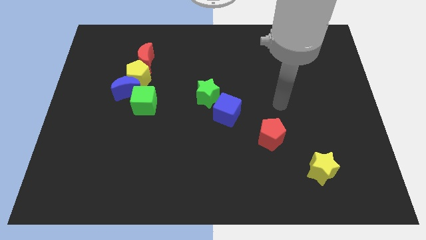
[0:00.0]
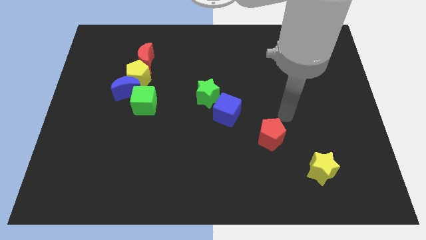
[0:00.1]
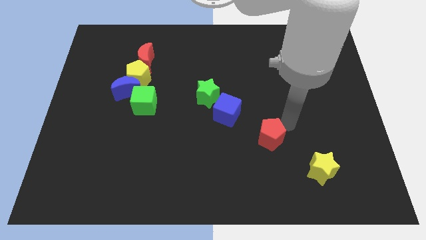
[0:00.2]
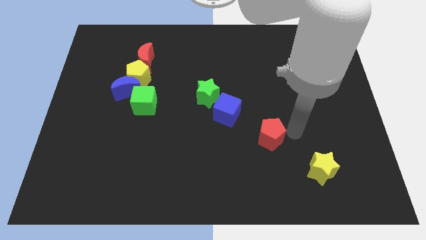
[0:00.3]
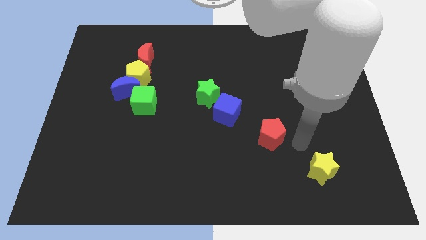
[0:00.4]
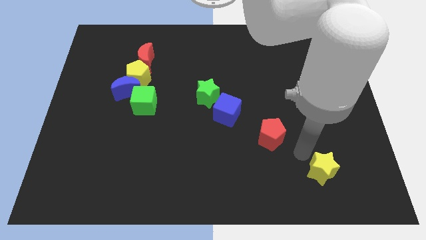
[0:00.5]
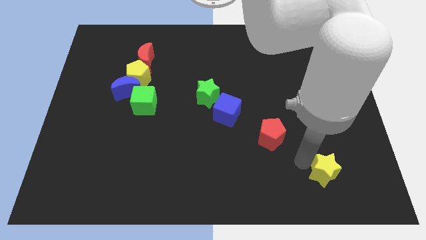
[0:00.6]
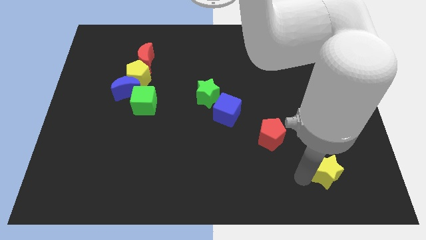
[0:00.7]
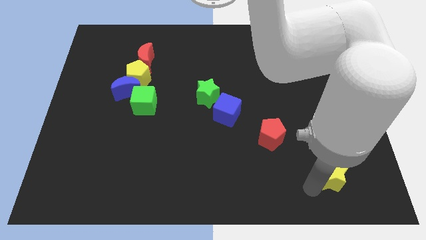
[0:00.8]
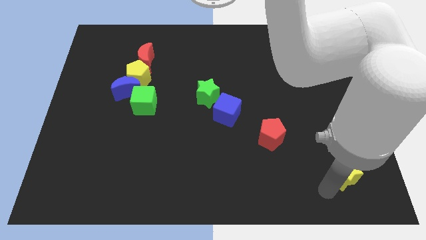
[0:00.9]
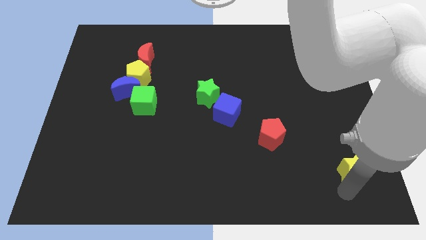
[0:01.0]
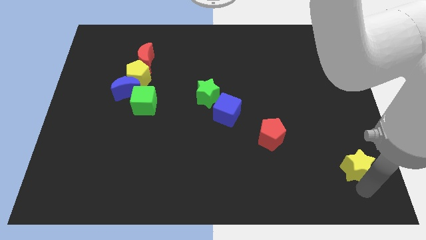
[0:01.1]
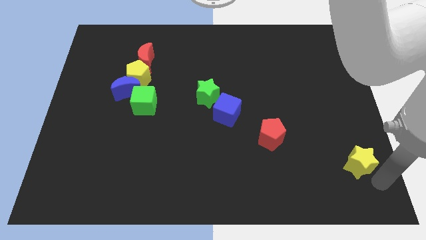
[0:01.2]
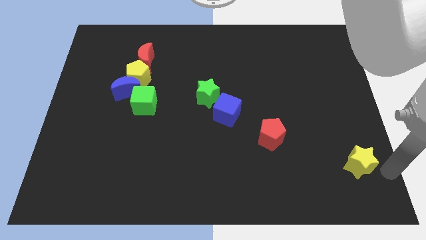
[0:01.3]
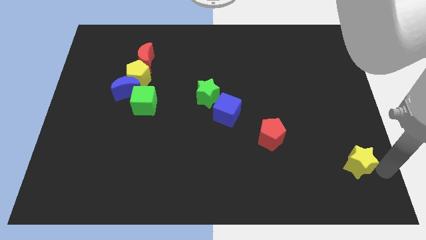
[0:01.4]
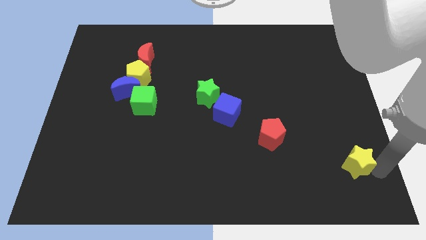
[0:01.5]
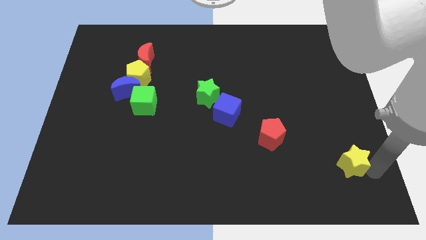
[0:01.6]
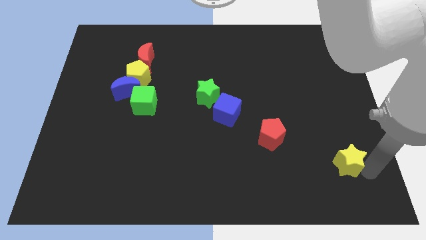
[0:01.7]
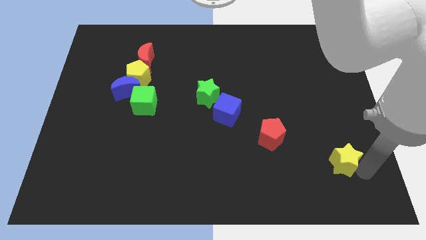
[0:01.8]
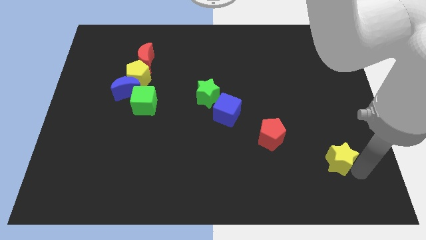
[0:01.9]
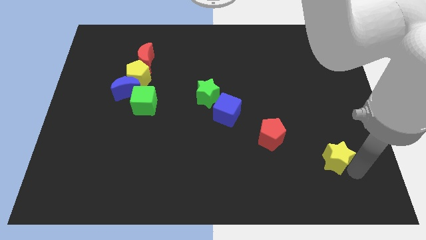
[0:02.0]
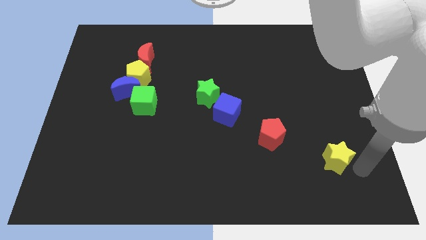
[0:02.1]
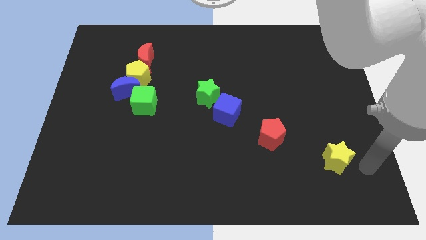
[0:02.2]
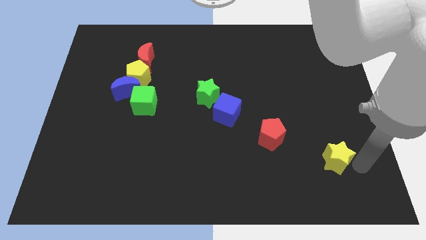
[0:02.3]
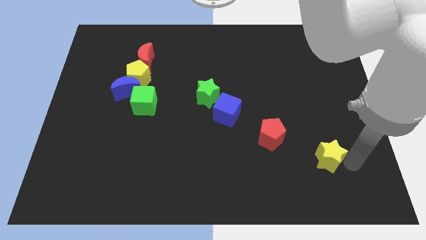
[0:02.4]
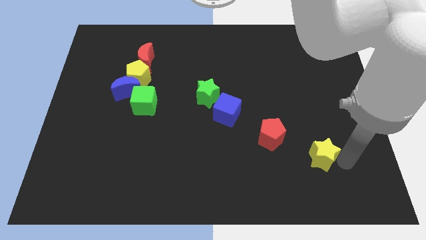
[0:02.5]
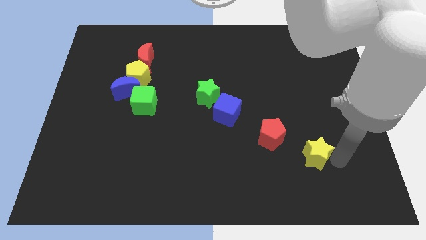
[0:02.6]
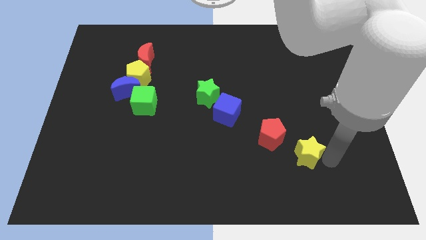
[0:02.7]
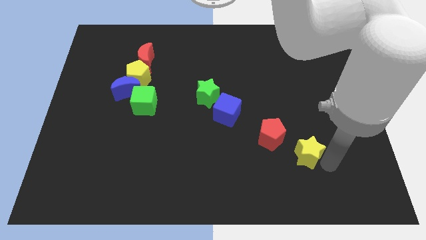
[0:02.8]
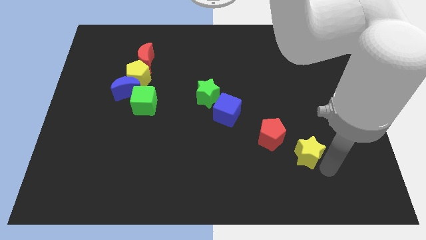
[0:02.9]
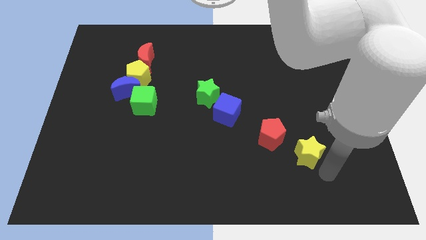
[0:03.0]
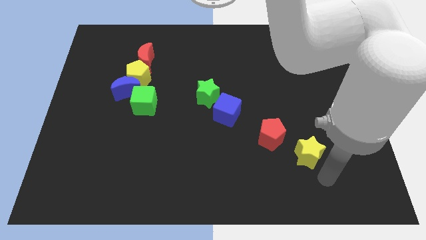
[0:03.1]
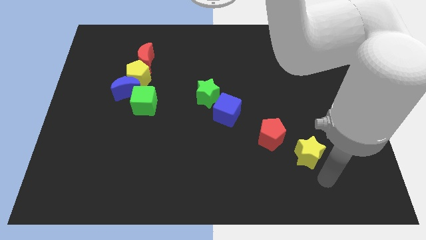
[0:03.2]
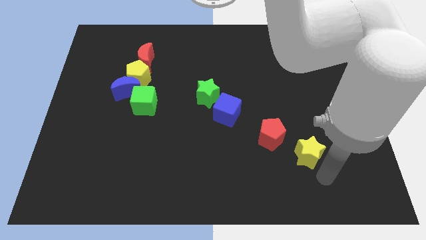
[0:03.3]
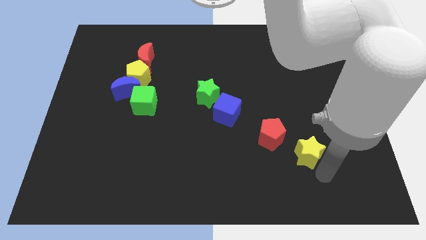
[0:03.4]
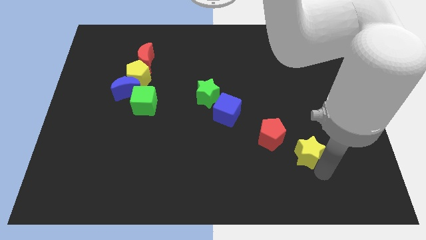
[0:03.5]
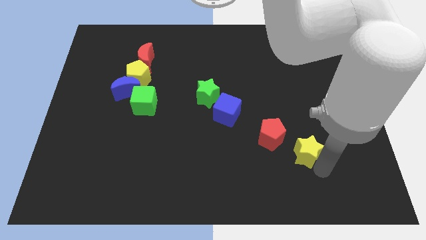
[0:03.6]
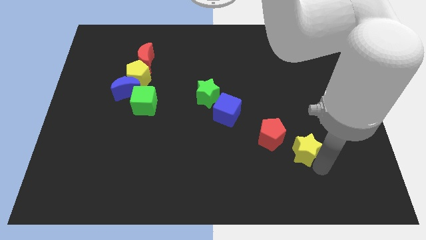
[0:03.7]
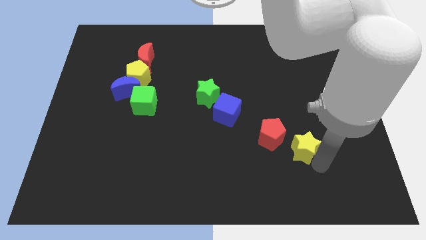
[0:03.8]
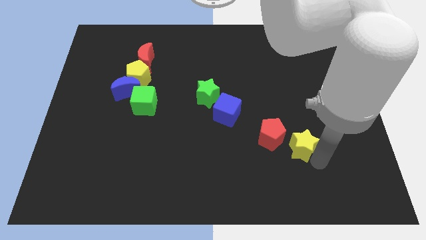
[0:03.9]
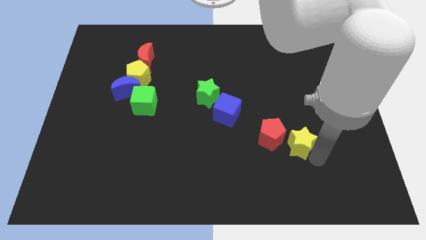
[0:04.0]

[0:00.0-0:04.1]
slightly push the yellow star diagonally upwards and left

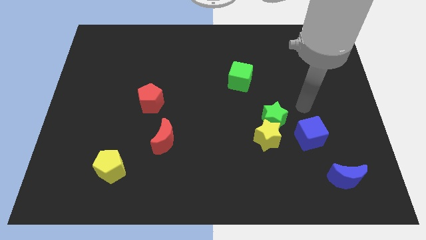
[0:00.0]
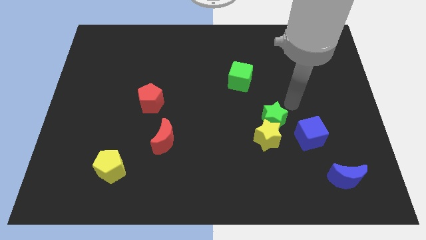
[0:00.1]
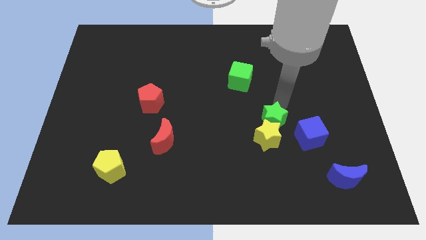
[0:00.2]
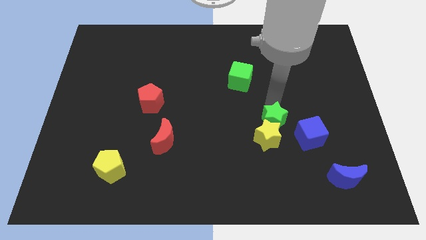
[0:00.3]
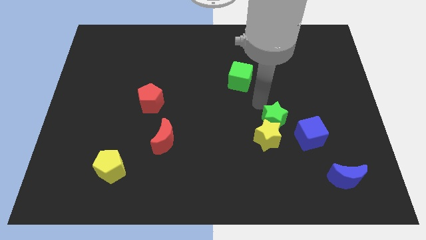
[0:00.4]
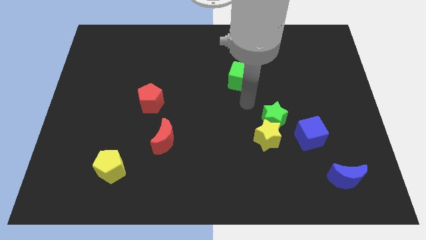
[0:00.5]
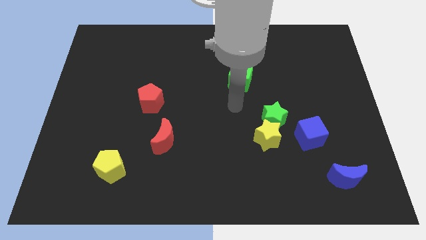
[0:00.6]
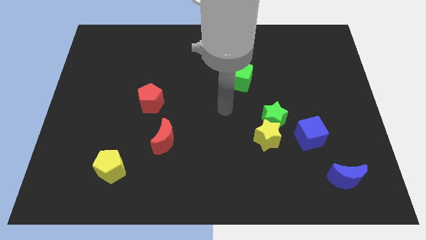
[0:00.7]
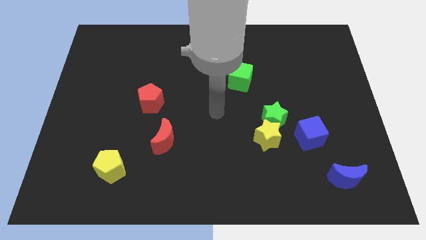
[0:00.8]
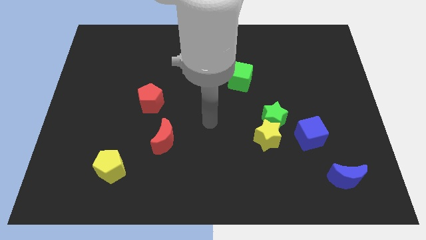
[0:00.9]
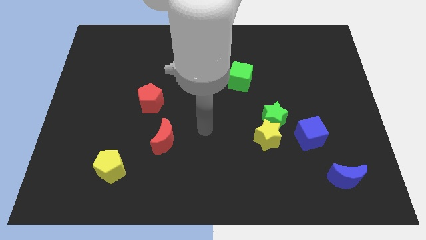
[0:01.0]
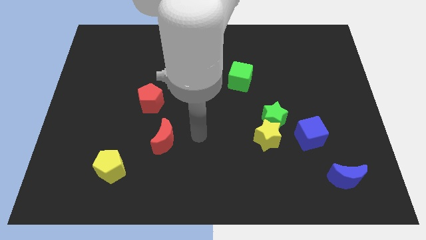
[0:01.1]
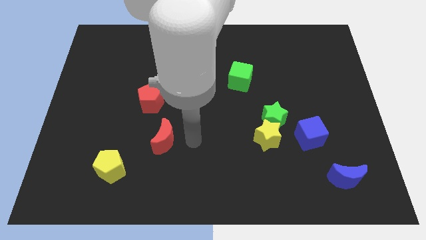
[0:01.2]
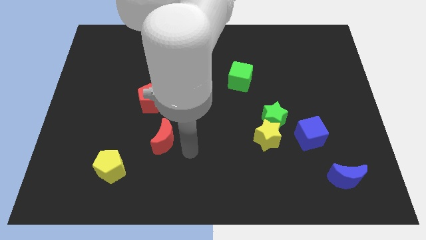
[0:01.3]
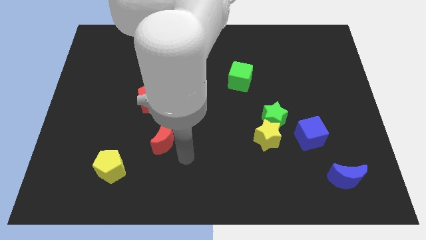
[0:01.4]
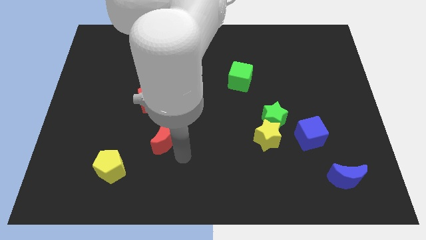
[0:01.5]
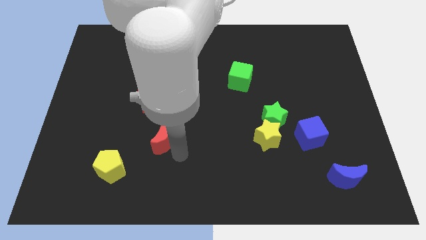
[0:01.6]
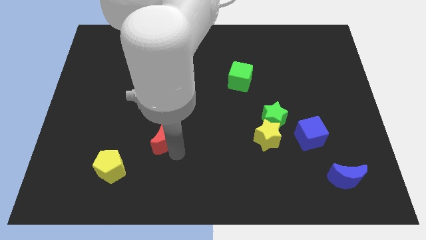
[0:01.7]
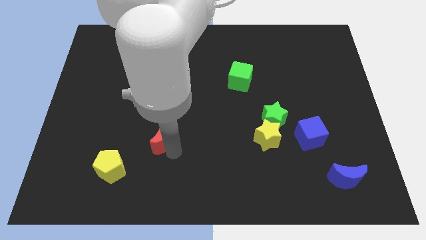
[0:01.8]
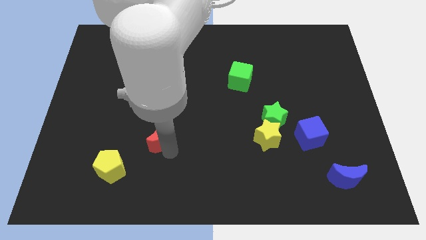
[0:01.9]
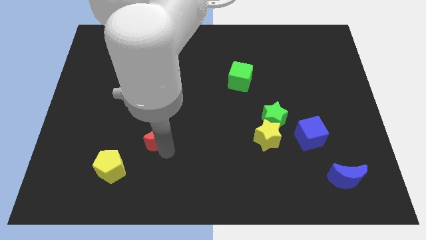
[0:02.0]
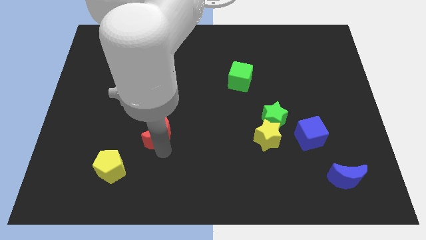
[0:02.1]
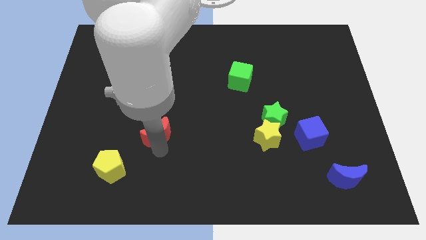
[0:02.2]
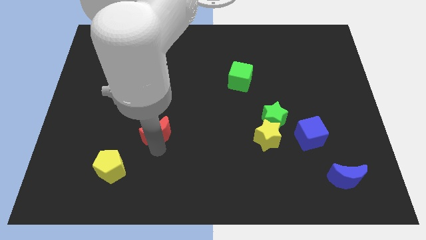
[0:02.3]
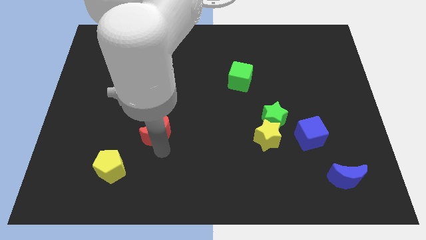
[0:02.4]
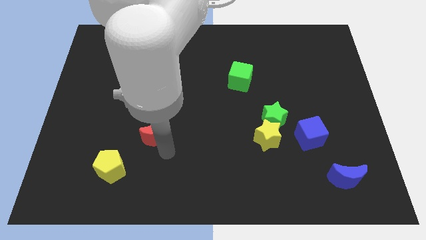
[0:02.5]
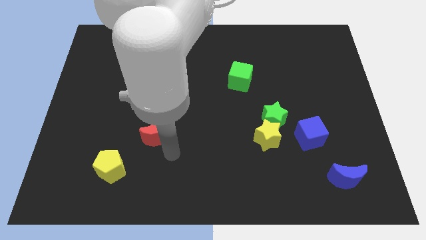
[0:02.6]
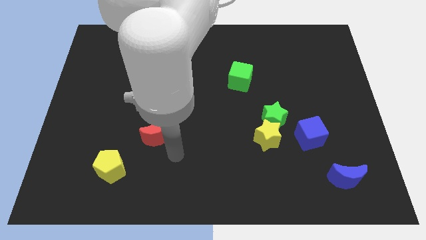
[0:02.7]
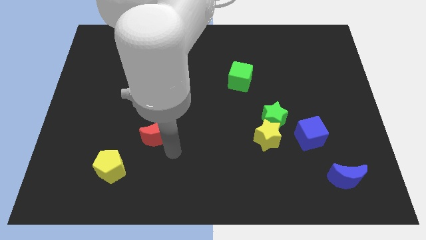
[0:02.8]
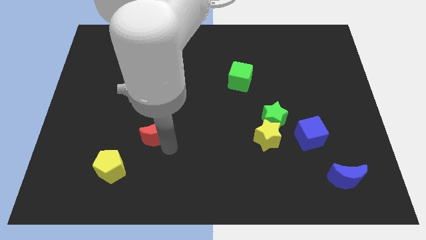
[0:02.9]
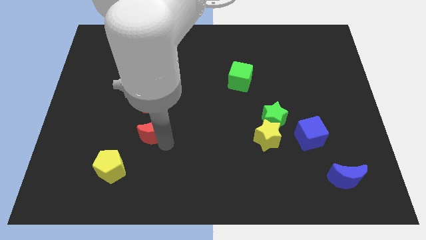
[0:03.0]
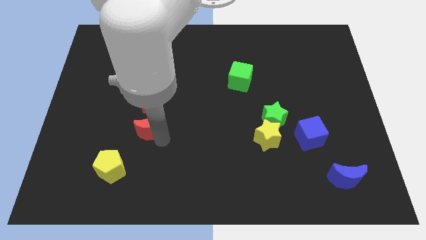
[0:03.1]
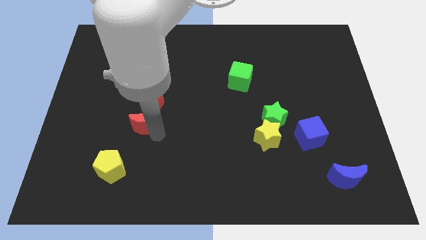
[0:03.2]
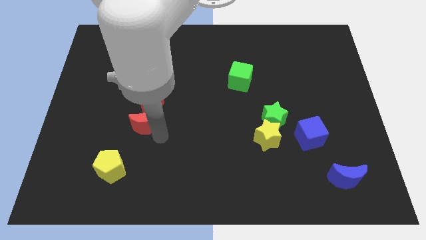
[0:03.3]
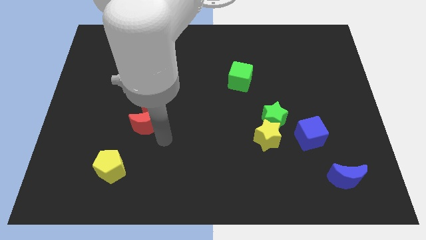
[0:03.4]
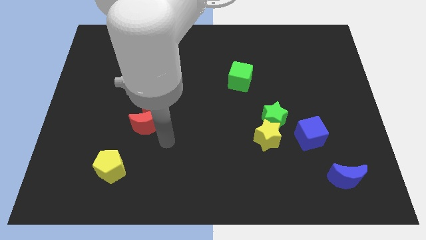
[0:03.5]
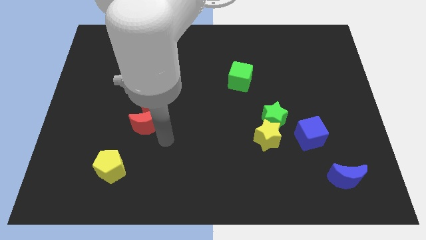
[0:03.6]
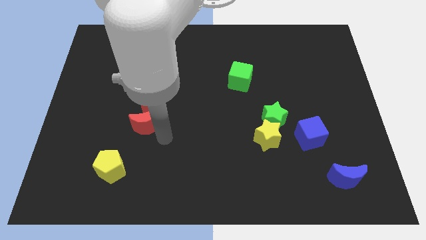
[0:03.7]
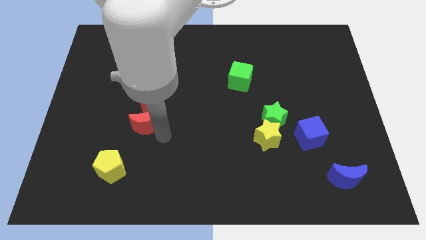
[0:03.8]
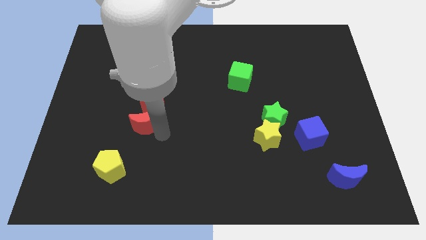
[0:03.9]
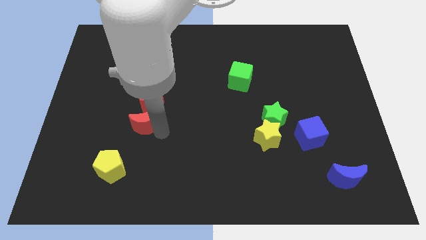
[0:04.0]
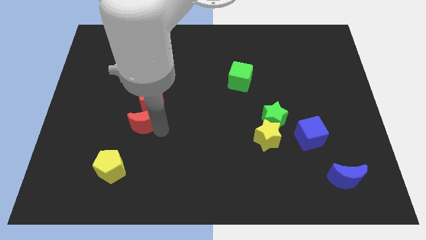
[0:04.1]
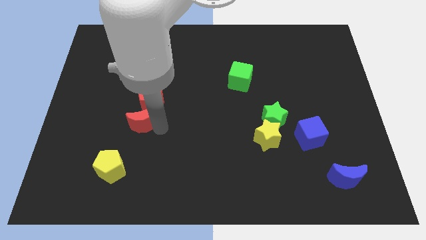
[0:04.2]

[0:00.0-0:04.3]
slide the red moon up and left a little bit
